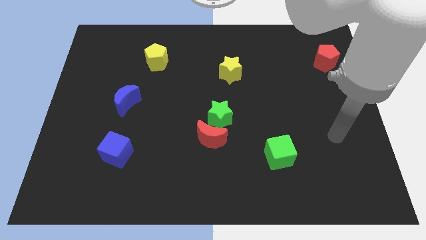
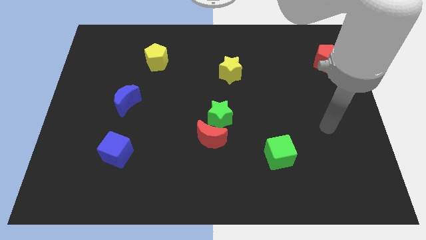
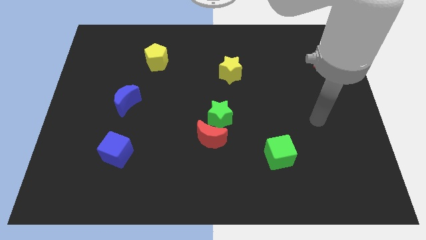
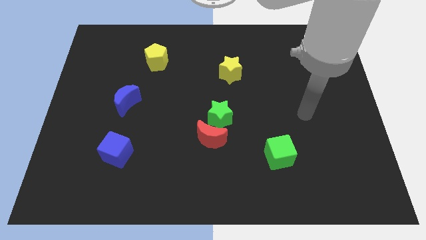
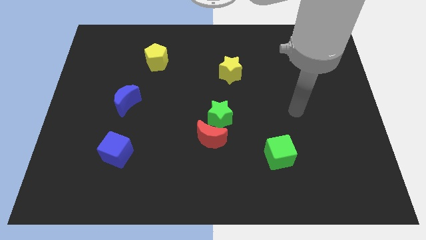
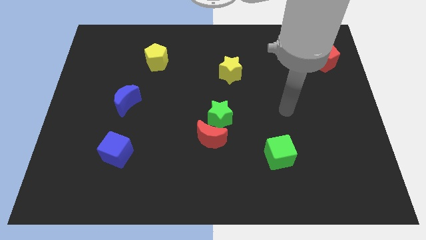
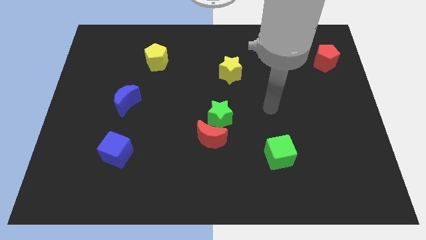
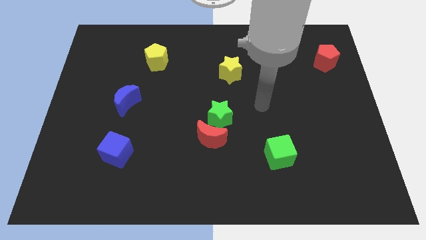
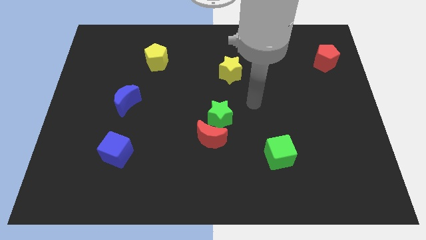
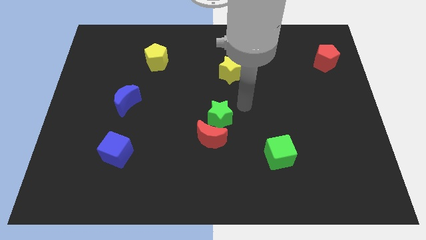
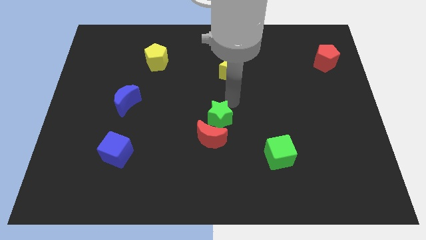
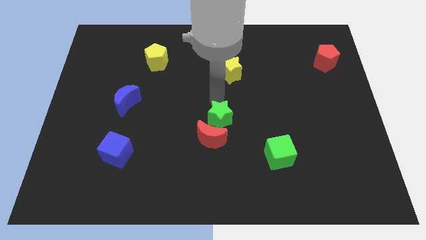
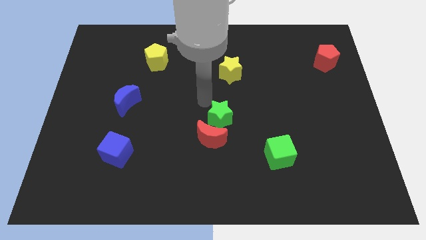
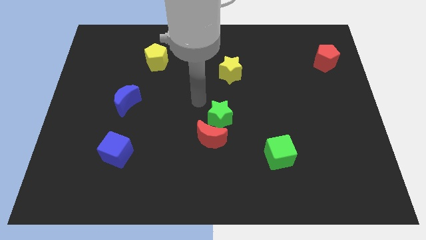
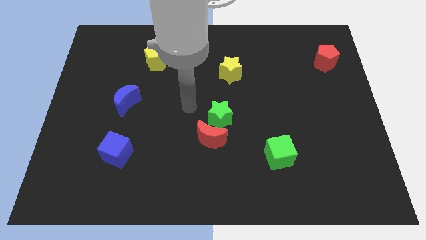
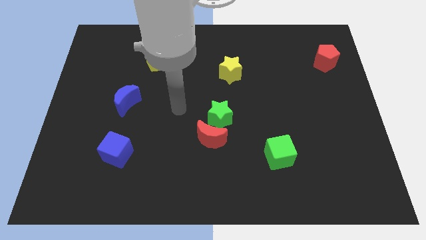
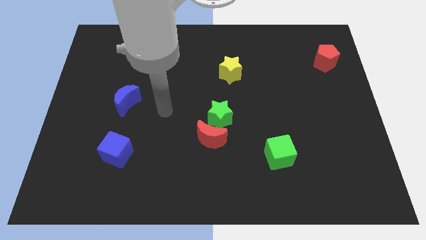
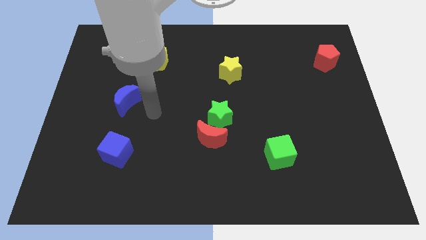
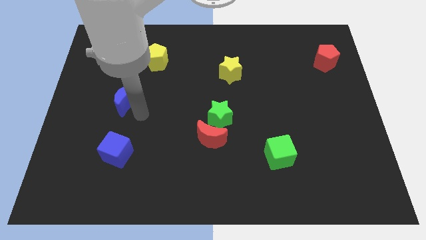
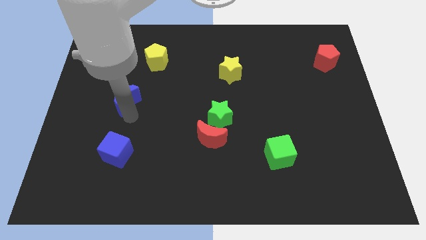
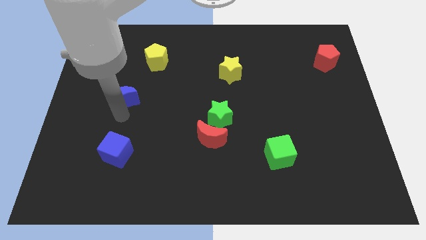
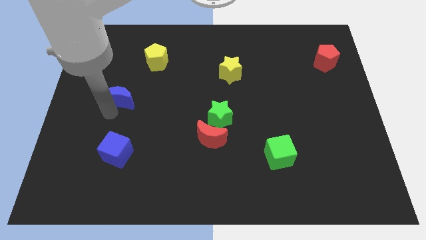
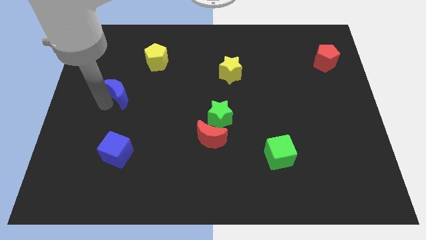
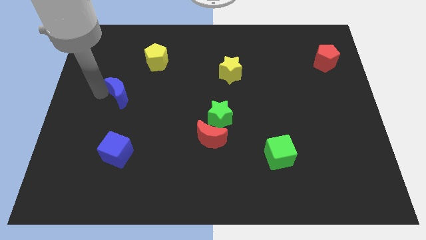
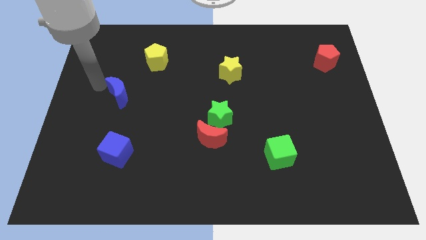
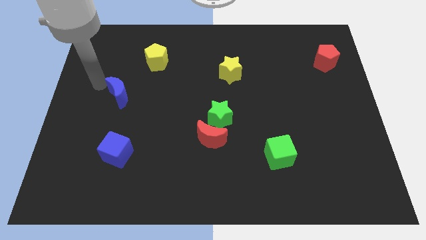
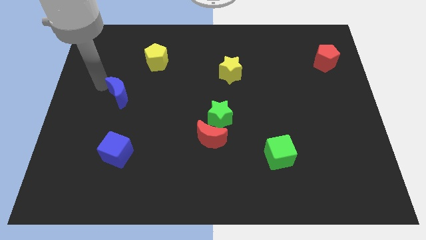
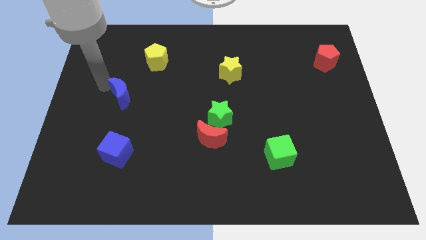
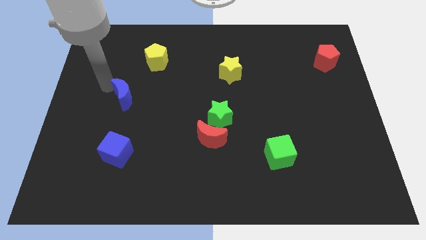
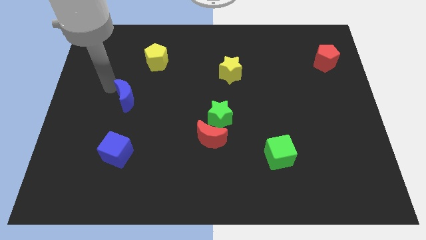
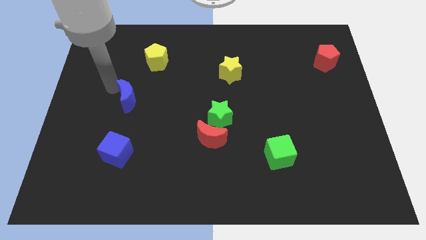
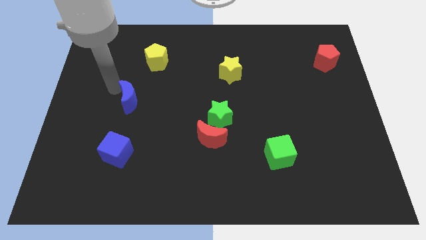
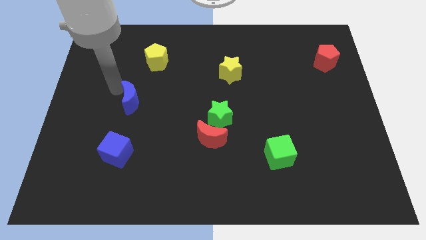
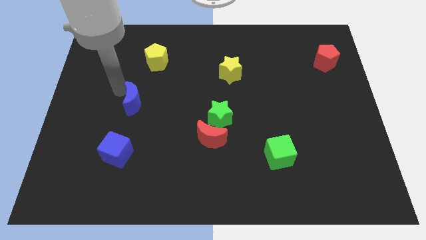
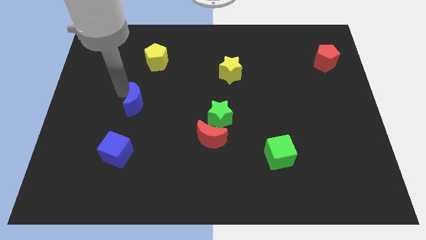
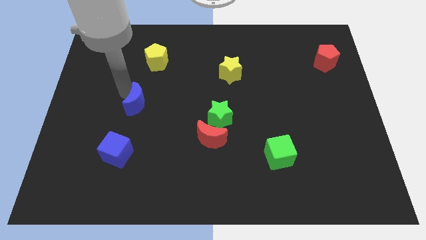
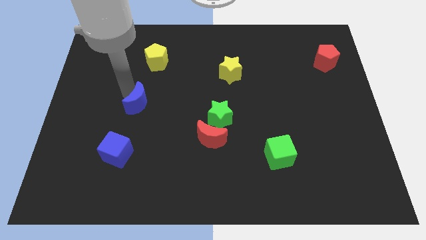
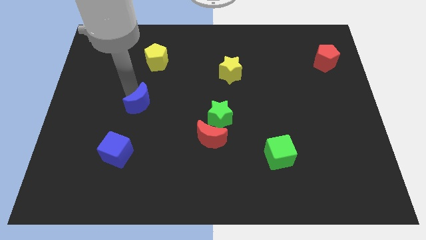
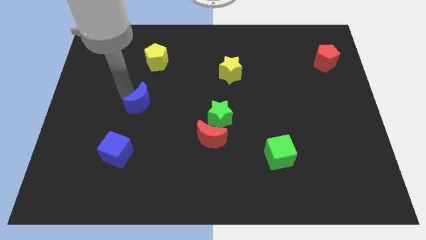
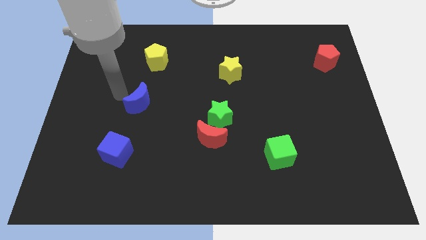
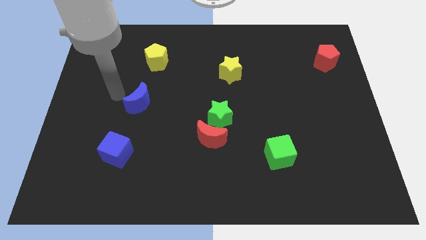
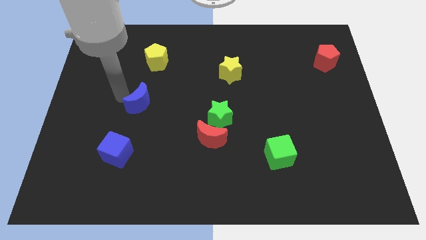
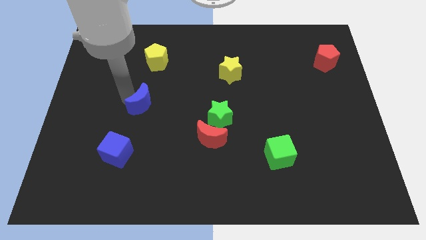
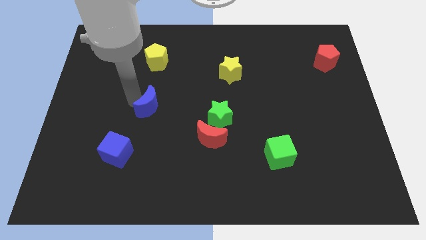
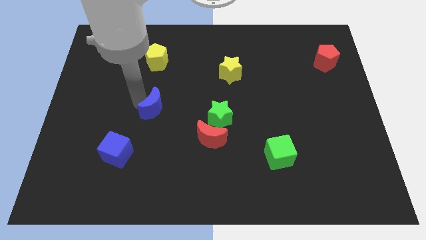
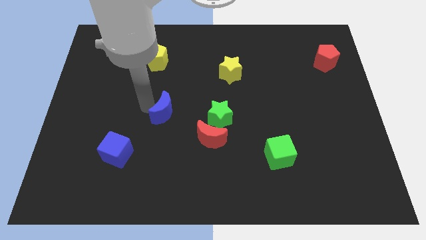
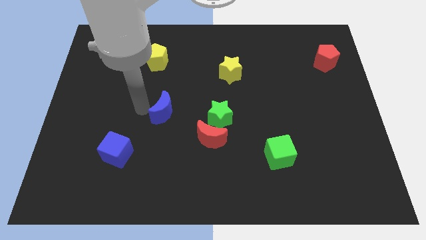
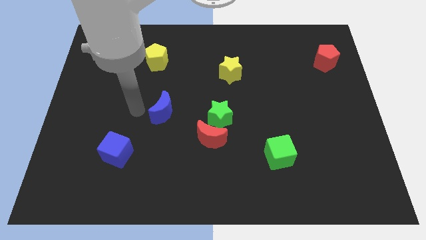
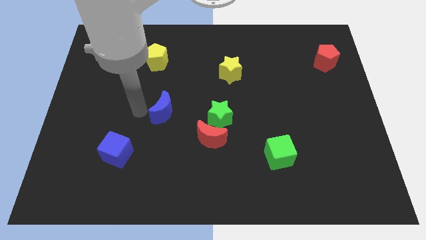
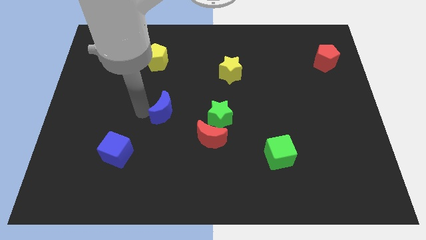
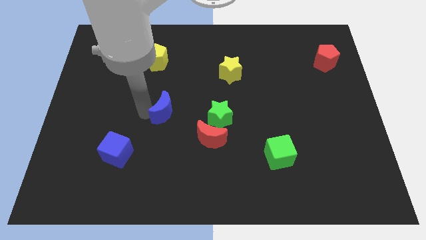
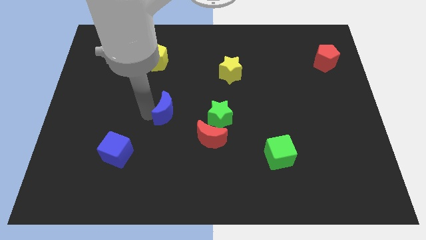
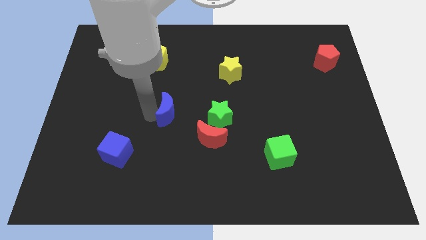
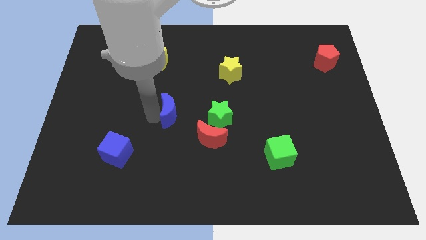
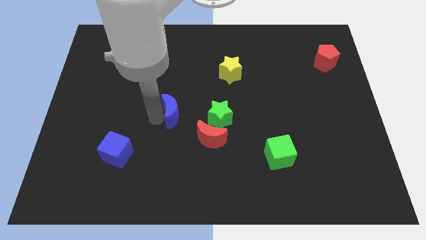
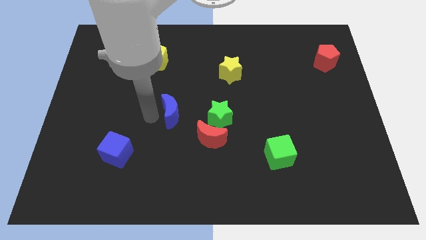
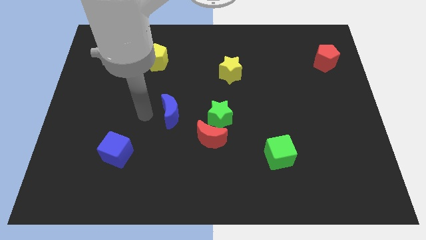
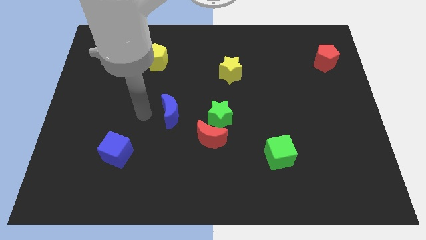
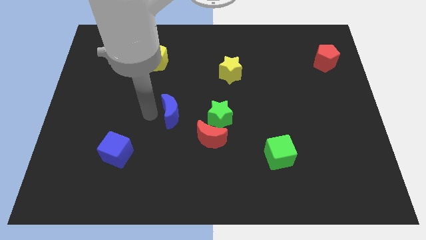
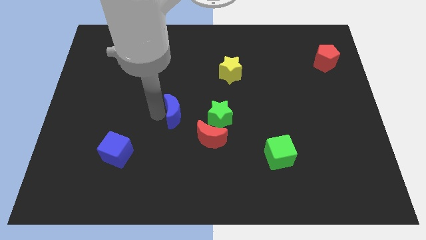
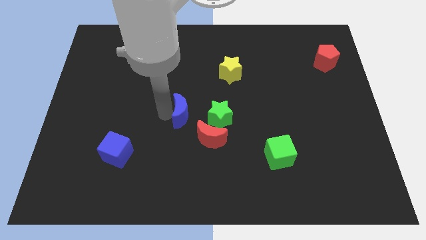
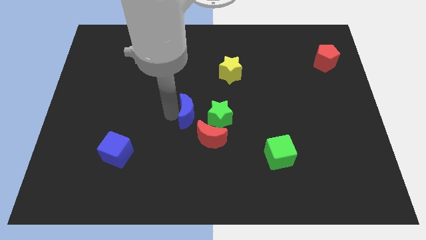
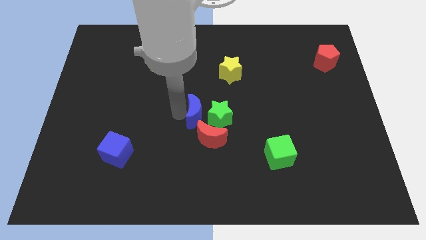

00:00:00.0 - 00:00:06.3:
move the blue moon close to the green star

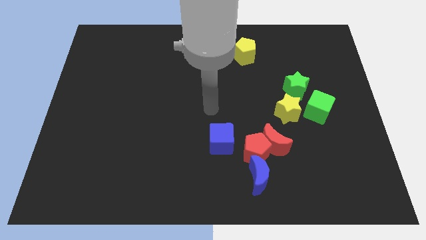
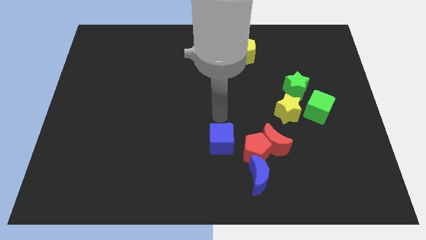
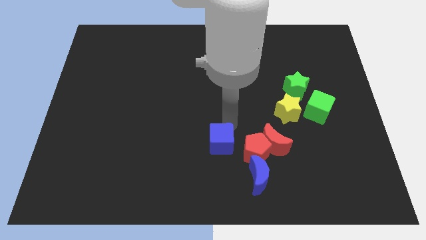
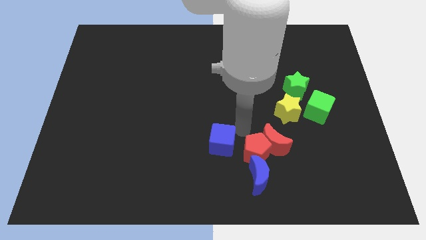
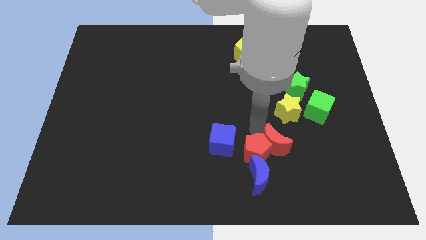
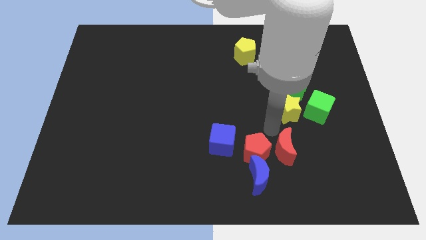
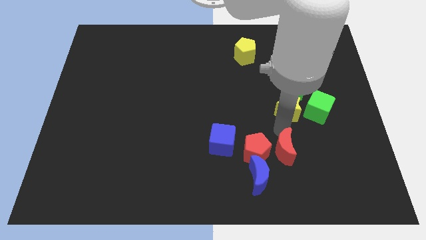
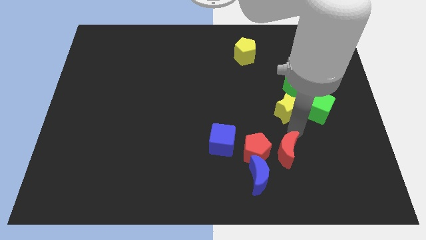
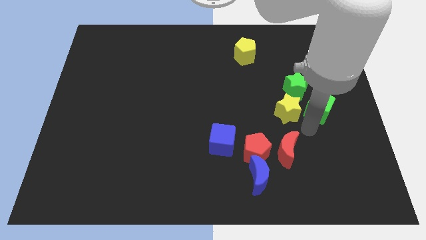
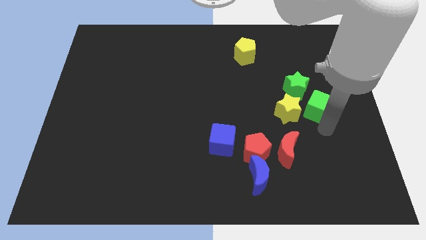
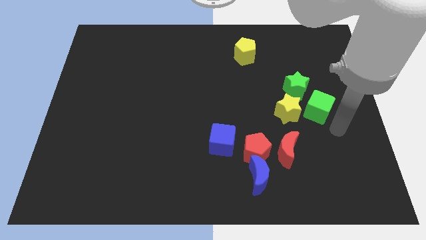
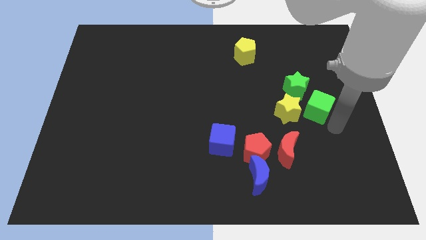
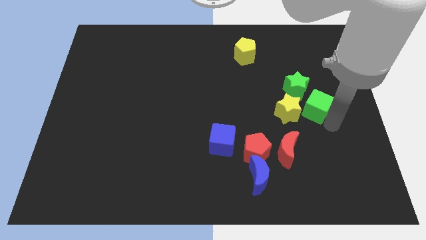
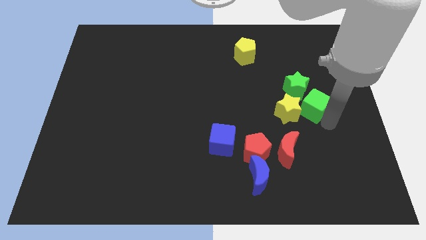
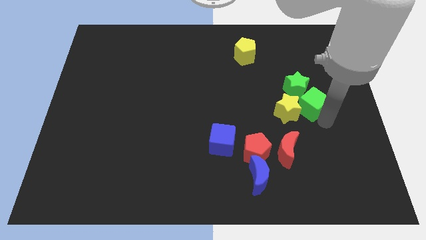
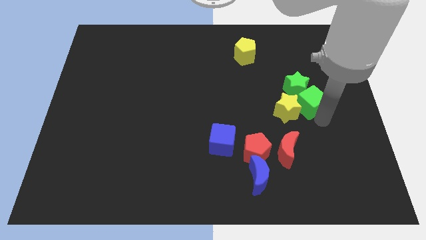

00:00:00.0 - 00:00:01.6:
move the green cube towards the green star
